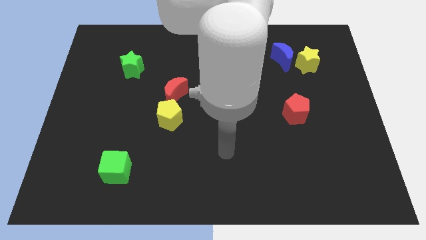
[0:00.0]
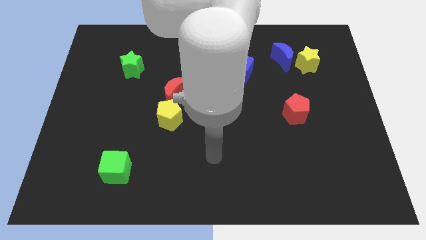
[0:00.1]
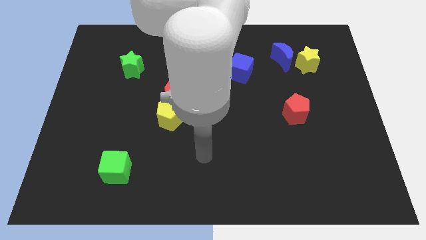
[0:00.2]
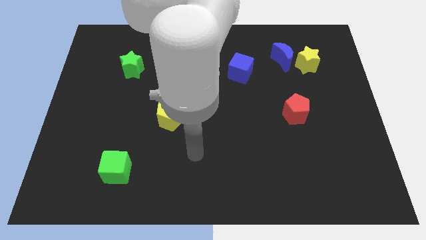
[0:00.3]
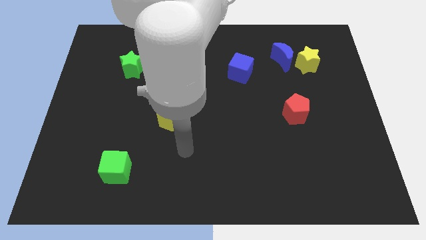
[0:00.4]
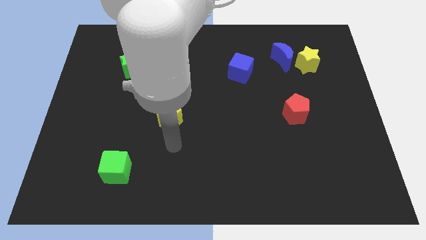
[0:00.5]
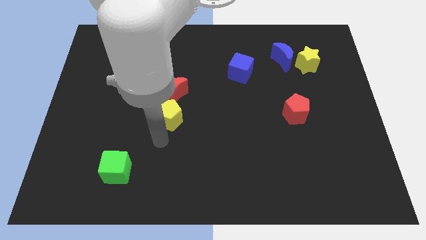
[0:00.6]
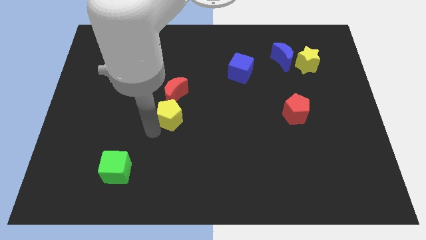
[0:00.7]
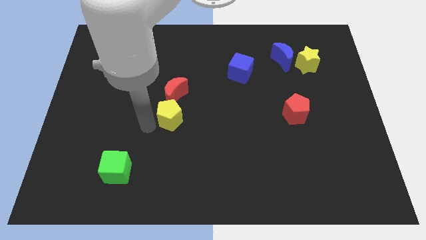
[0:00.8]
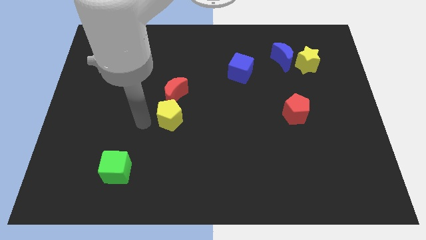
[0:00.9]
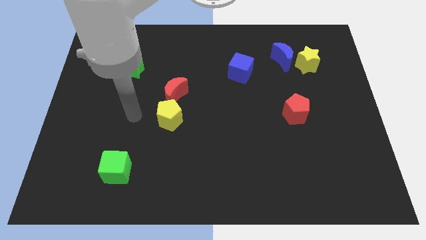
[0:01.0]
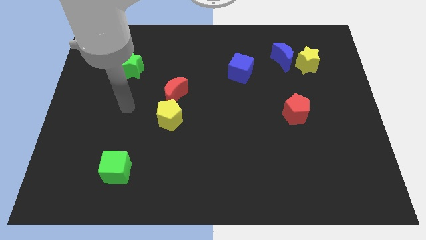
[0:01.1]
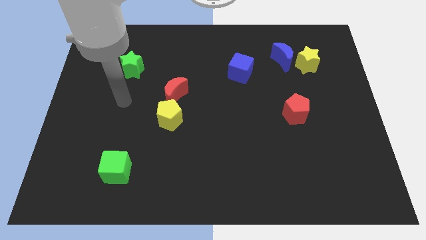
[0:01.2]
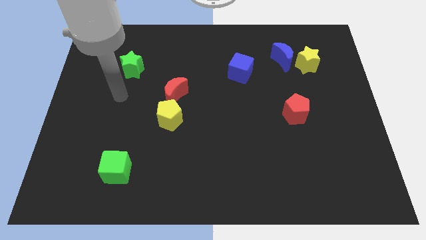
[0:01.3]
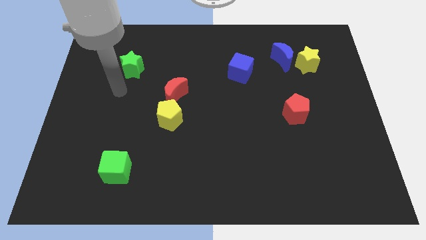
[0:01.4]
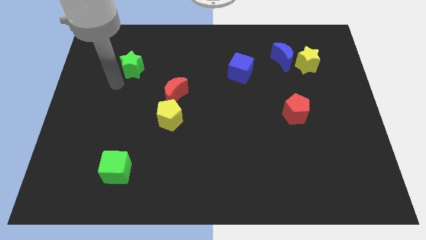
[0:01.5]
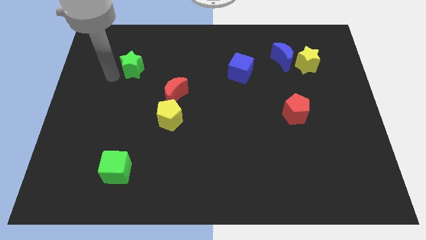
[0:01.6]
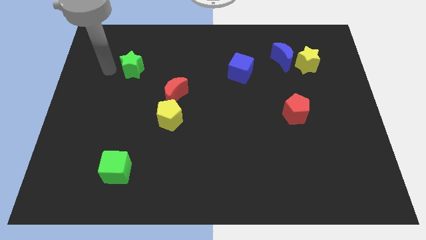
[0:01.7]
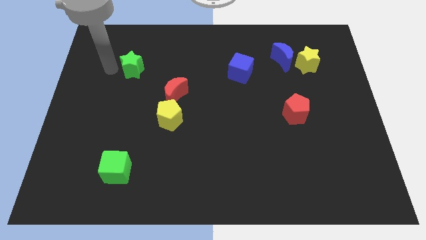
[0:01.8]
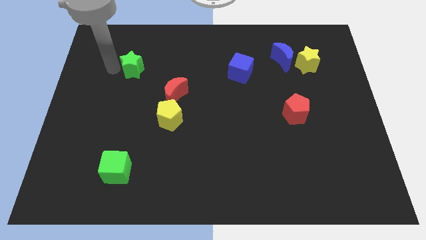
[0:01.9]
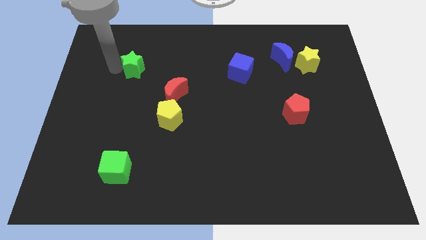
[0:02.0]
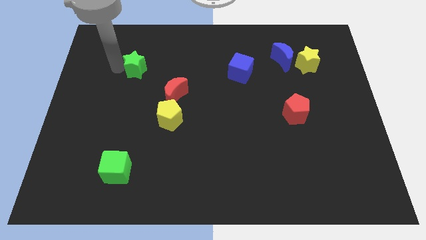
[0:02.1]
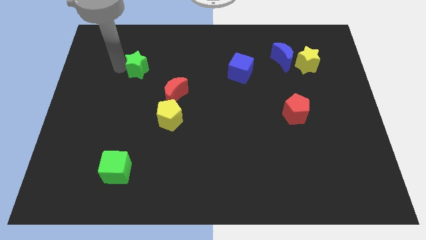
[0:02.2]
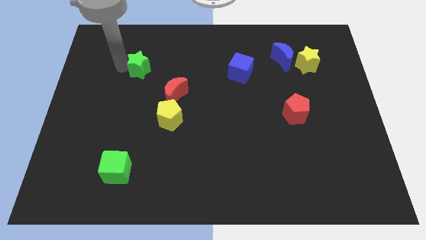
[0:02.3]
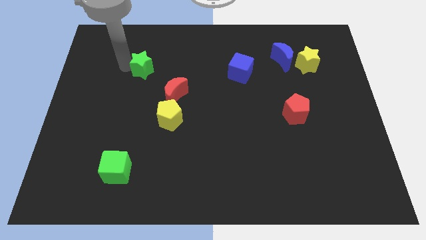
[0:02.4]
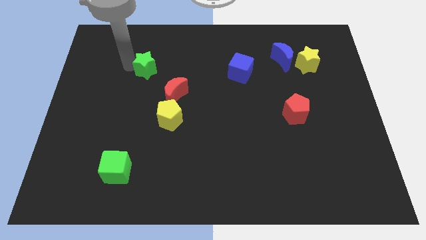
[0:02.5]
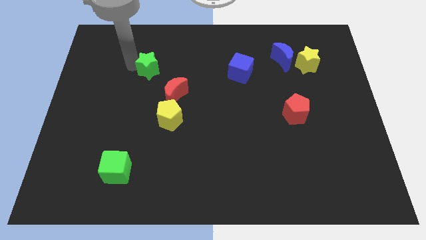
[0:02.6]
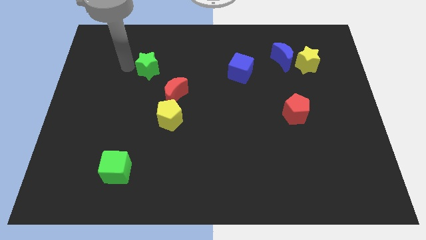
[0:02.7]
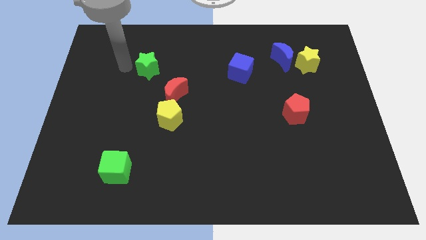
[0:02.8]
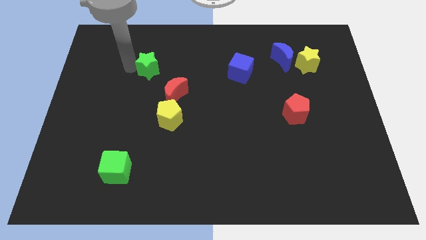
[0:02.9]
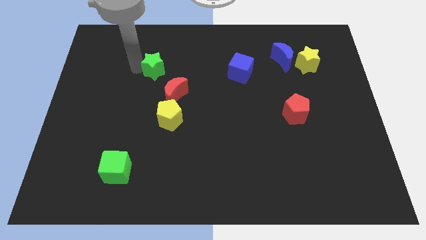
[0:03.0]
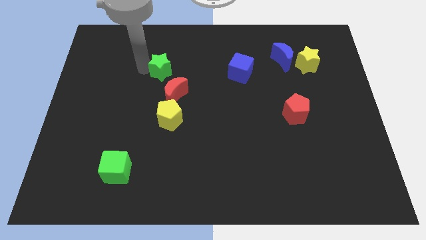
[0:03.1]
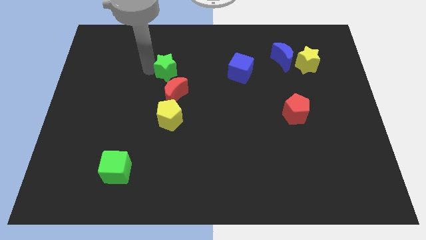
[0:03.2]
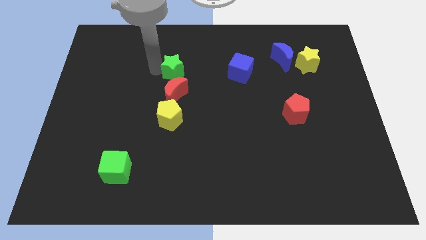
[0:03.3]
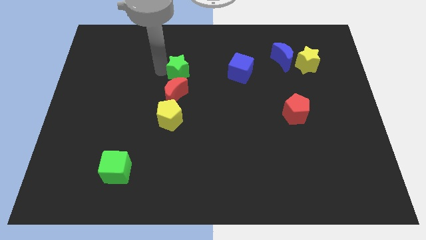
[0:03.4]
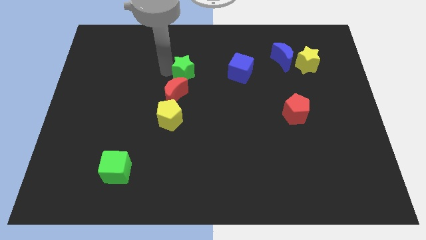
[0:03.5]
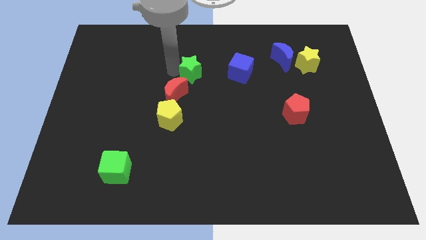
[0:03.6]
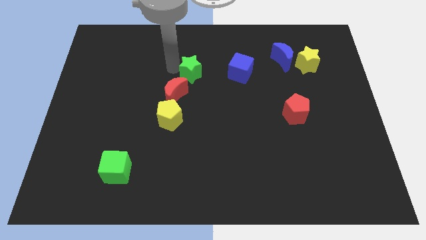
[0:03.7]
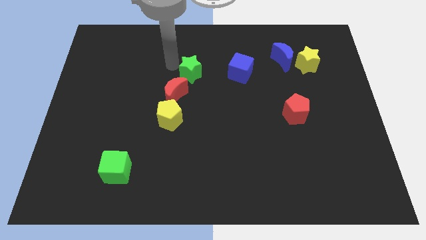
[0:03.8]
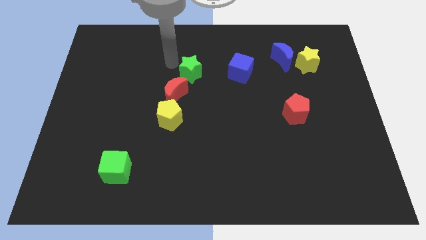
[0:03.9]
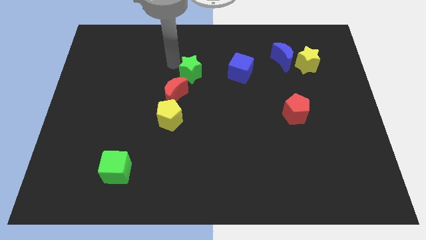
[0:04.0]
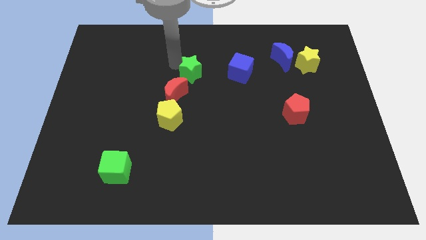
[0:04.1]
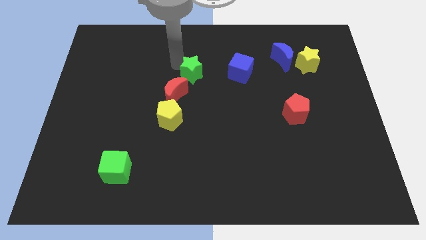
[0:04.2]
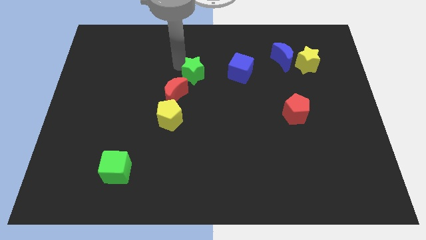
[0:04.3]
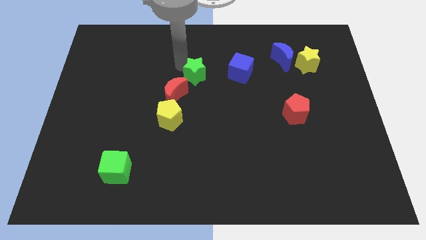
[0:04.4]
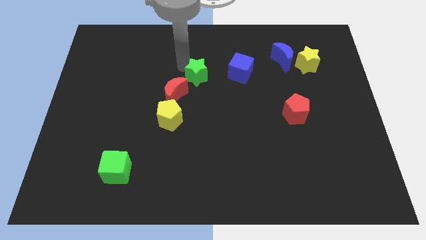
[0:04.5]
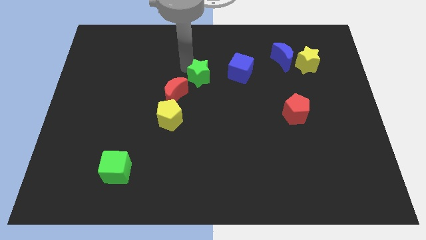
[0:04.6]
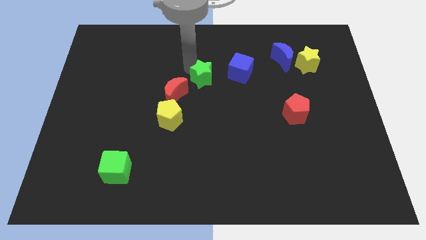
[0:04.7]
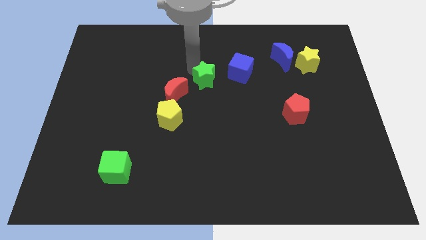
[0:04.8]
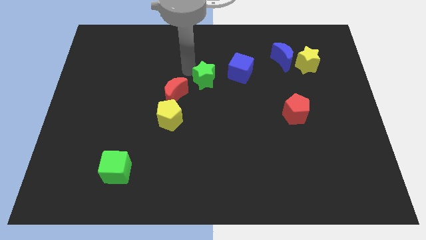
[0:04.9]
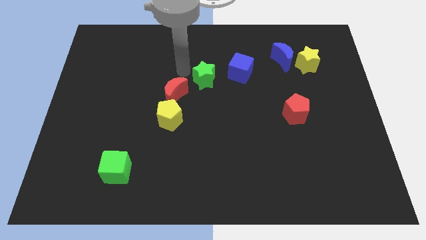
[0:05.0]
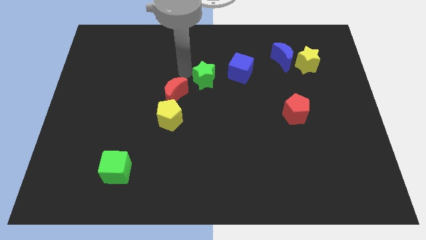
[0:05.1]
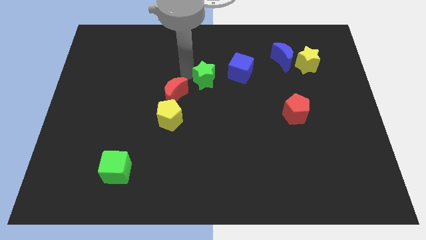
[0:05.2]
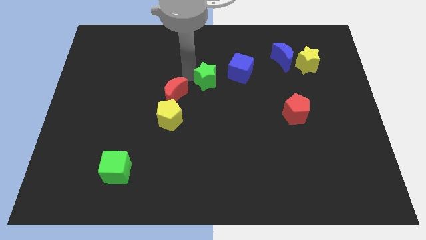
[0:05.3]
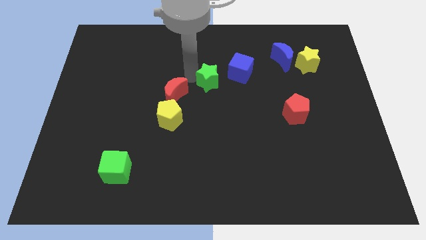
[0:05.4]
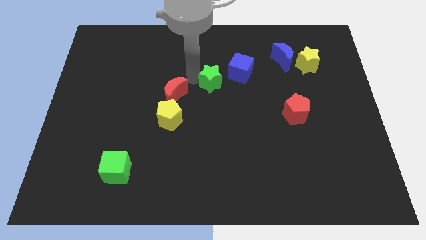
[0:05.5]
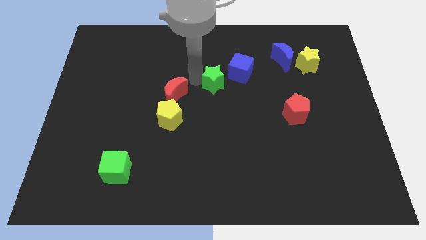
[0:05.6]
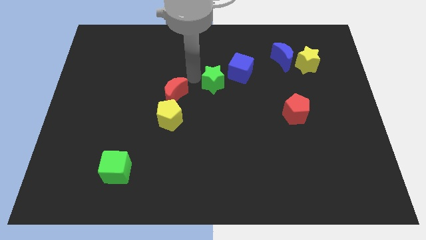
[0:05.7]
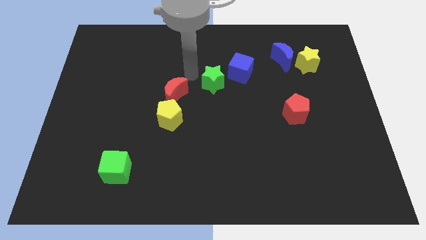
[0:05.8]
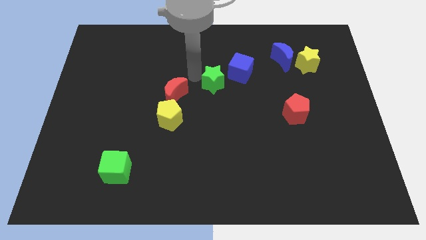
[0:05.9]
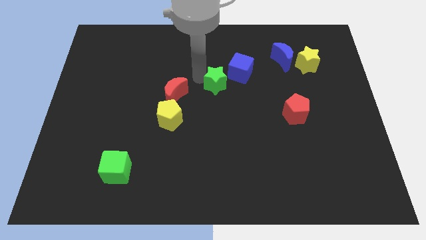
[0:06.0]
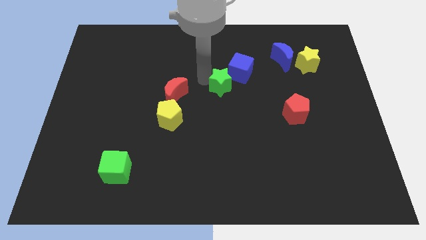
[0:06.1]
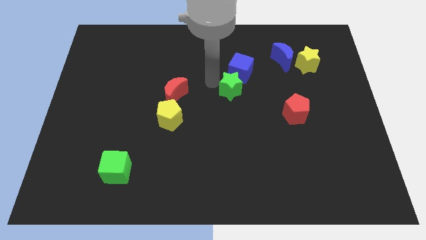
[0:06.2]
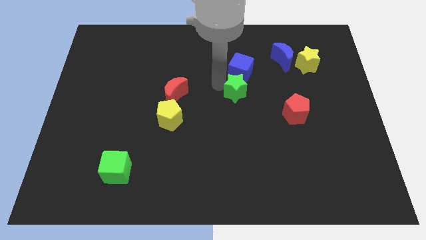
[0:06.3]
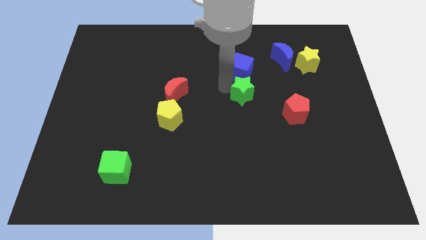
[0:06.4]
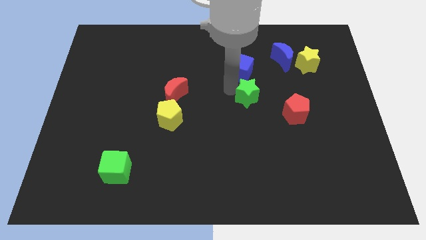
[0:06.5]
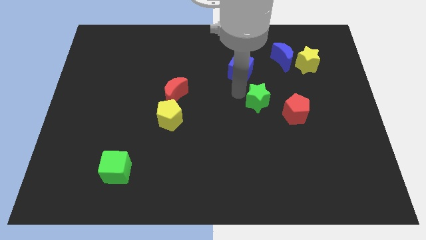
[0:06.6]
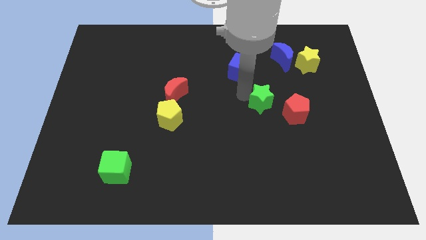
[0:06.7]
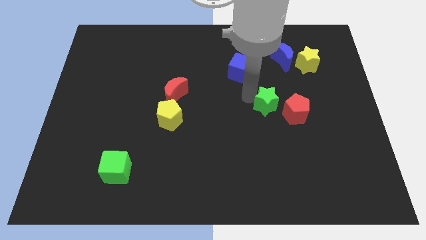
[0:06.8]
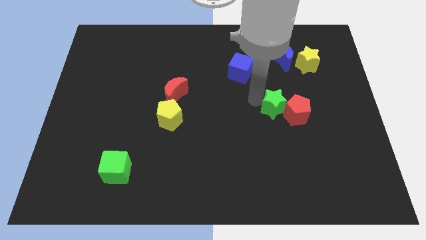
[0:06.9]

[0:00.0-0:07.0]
put the green star close to the red pentagon
